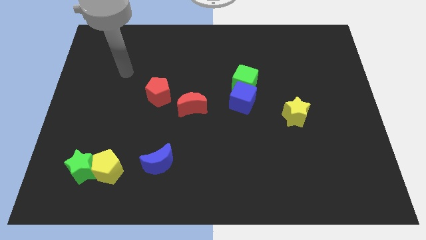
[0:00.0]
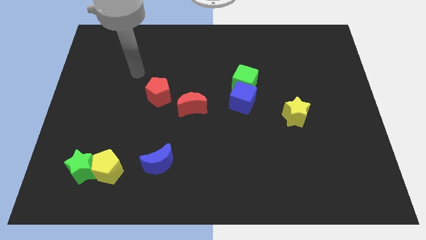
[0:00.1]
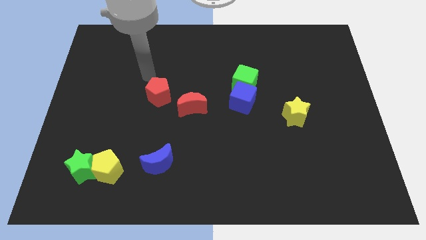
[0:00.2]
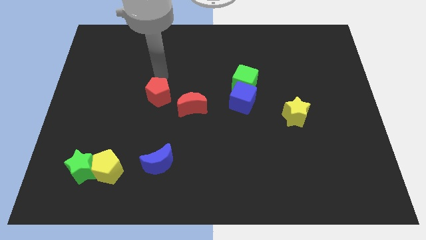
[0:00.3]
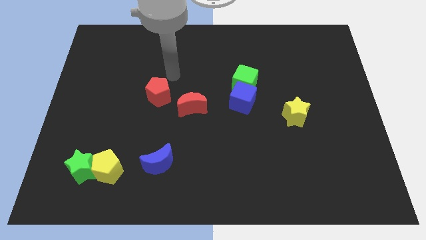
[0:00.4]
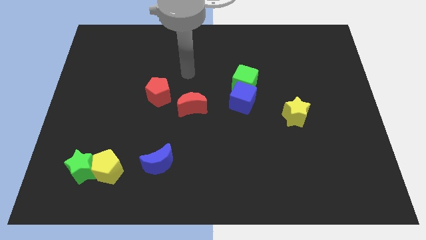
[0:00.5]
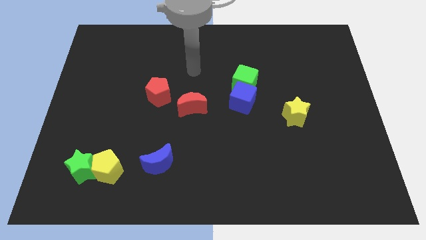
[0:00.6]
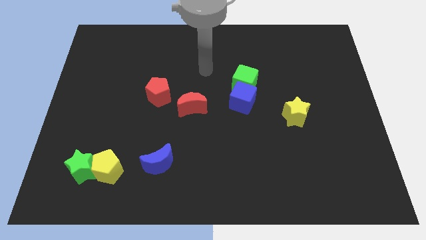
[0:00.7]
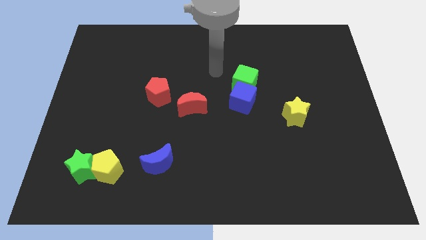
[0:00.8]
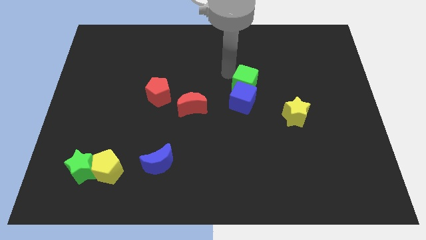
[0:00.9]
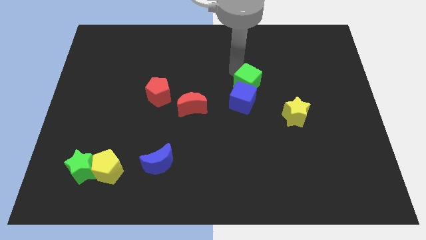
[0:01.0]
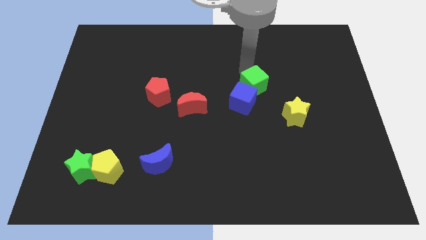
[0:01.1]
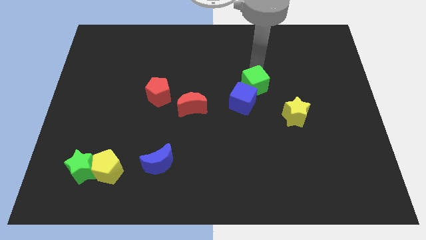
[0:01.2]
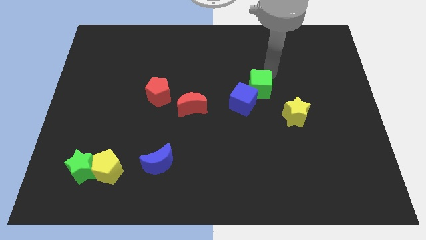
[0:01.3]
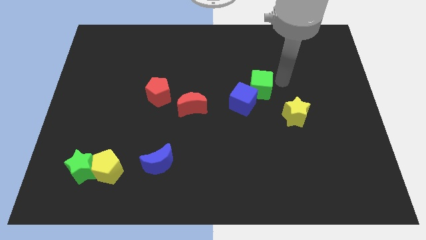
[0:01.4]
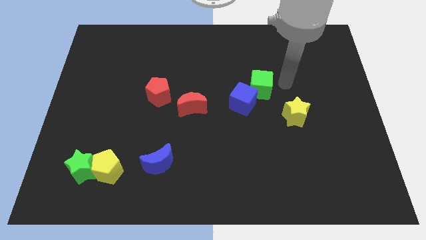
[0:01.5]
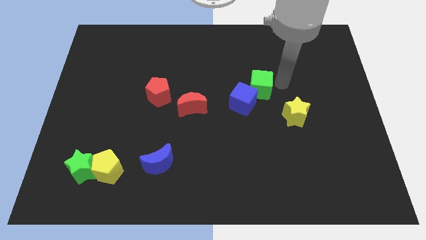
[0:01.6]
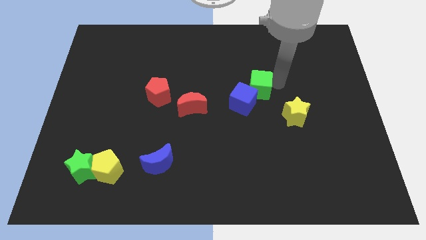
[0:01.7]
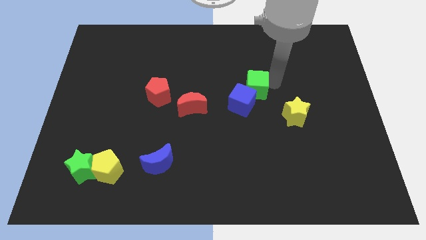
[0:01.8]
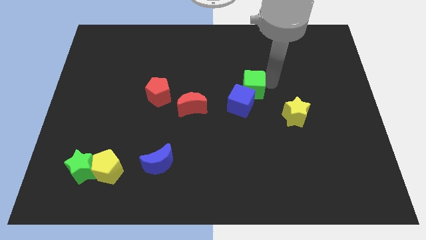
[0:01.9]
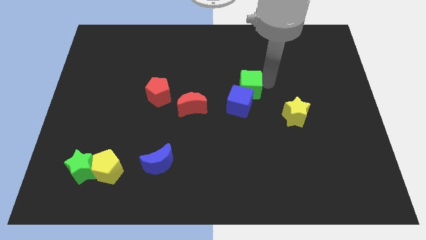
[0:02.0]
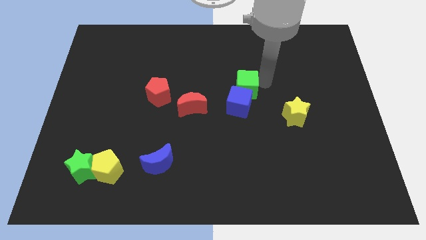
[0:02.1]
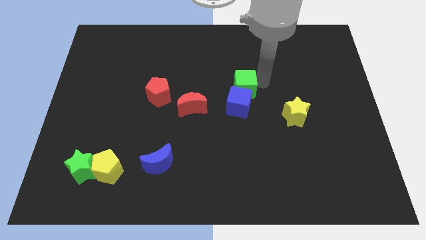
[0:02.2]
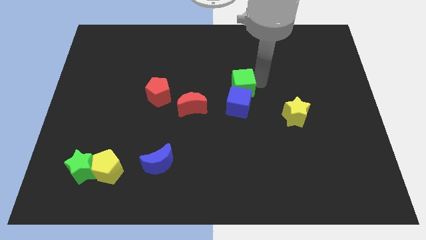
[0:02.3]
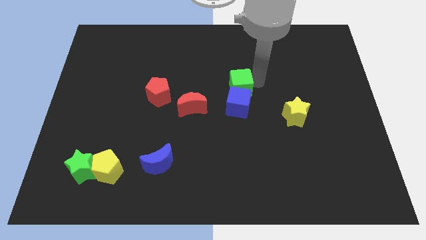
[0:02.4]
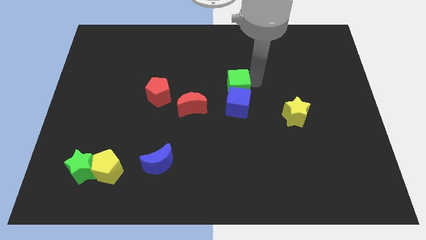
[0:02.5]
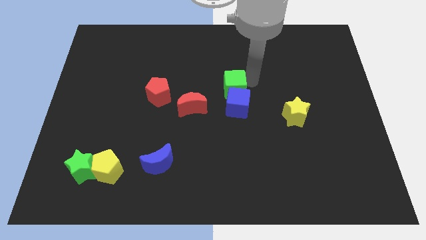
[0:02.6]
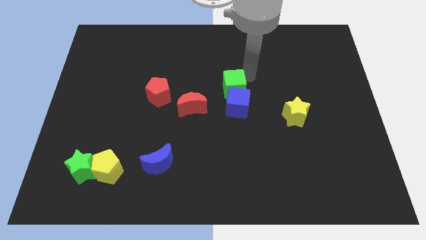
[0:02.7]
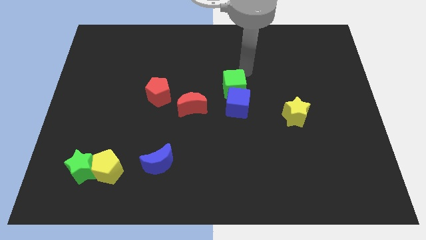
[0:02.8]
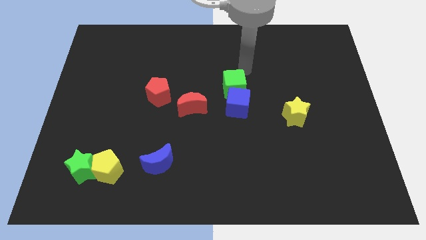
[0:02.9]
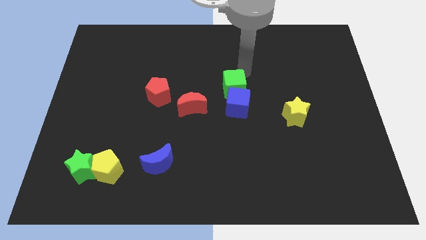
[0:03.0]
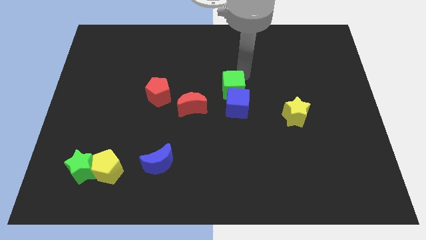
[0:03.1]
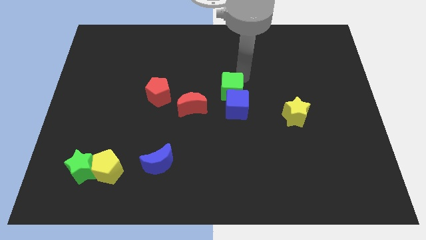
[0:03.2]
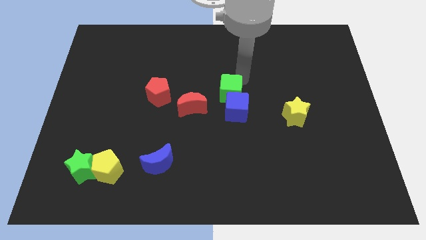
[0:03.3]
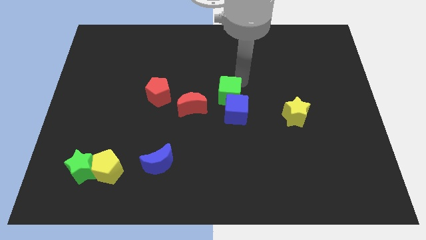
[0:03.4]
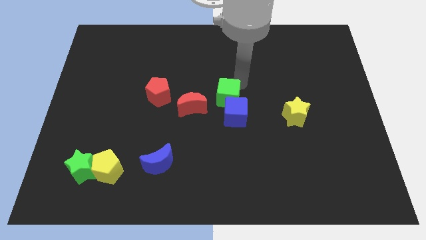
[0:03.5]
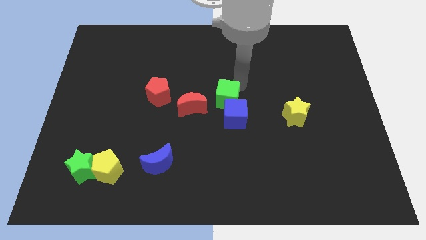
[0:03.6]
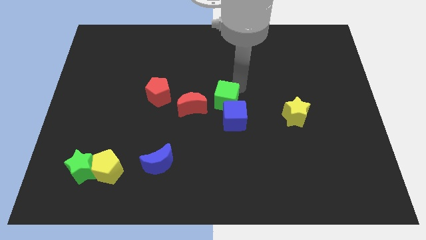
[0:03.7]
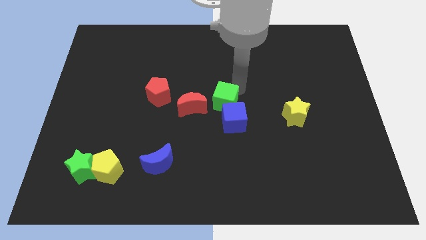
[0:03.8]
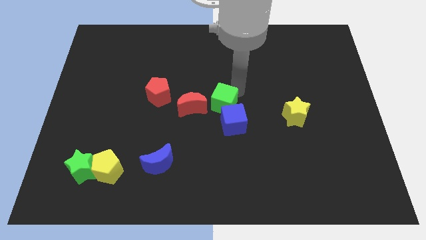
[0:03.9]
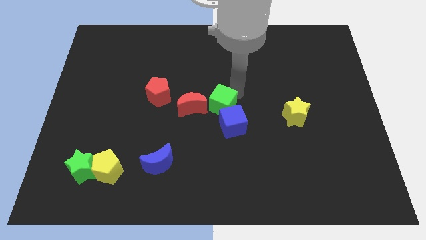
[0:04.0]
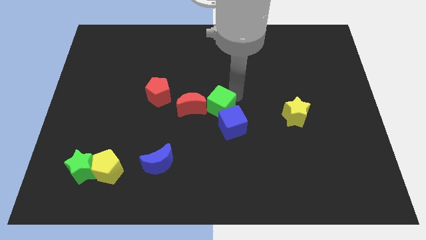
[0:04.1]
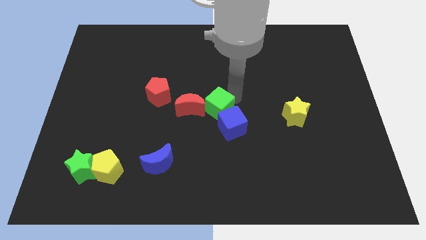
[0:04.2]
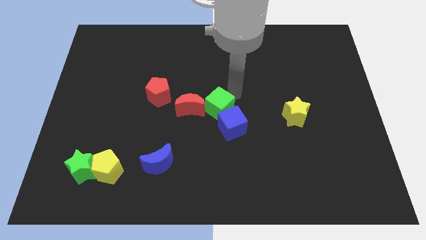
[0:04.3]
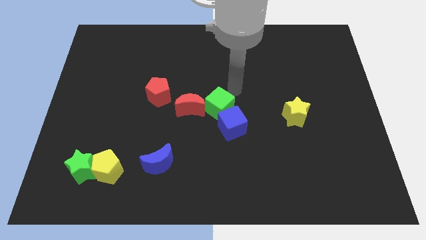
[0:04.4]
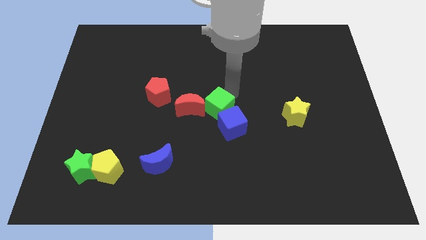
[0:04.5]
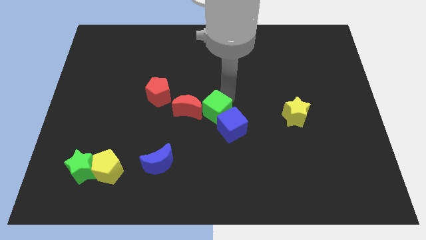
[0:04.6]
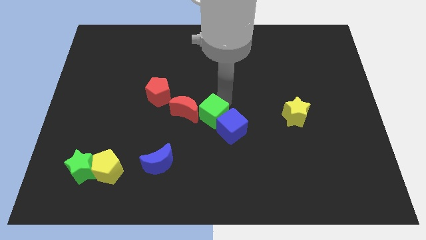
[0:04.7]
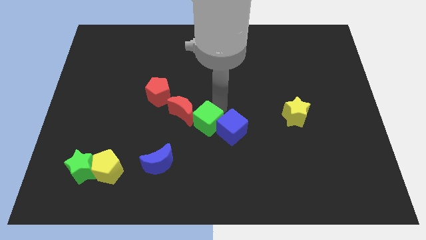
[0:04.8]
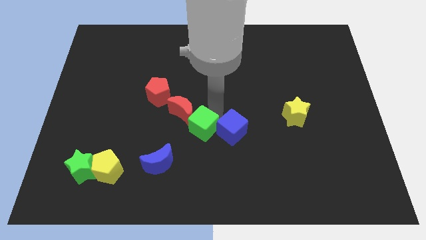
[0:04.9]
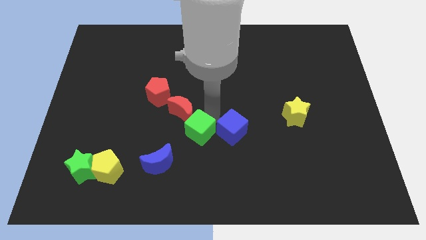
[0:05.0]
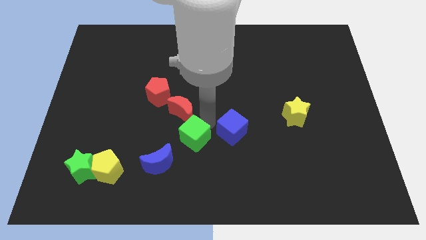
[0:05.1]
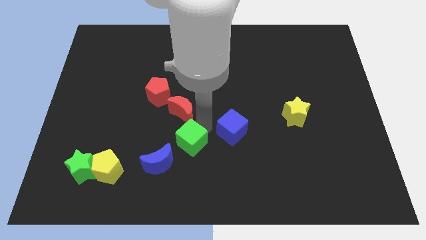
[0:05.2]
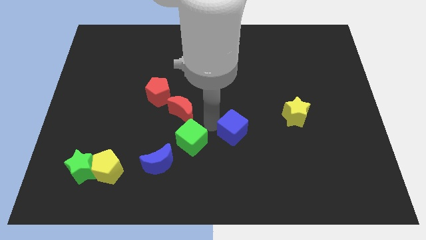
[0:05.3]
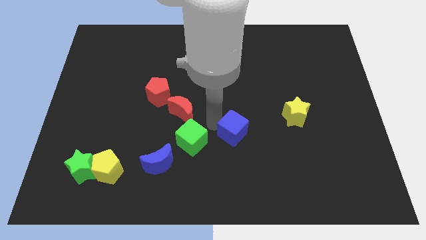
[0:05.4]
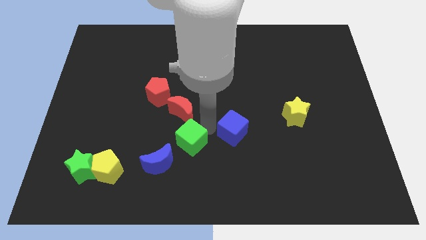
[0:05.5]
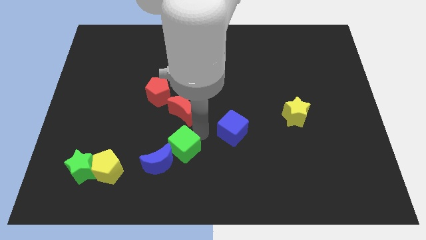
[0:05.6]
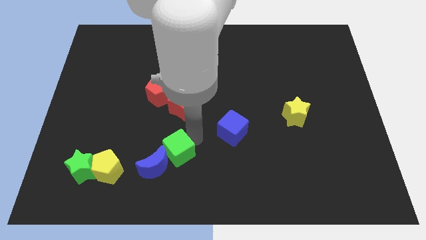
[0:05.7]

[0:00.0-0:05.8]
push the green cube towards the blue moon
